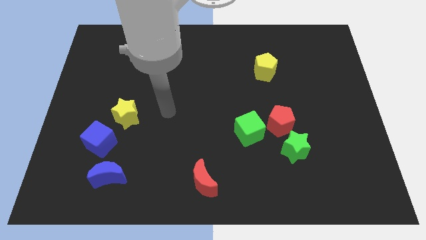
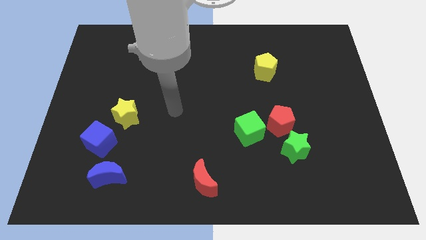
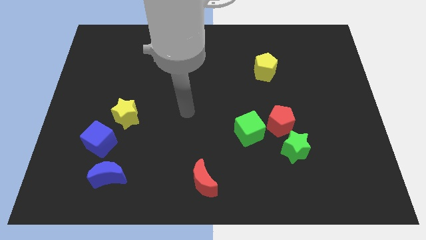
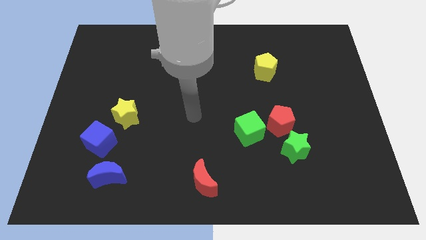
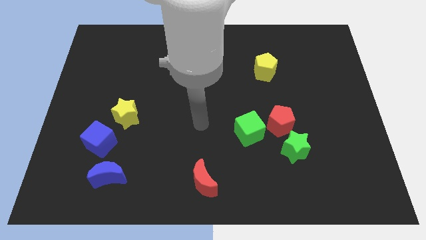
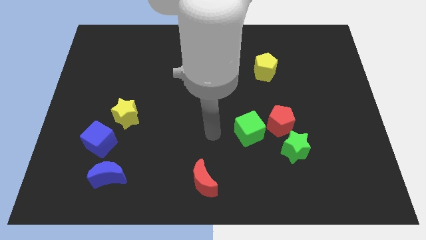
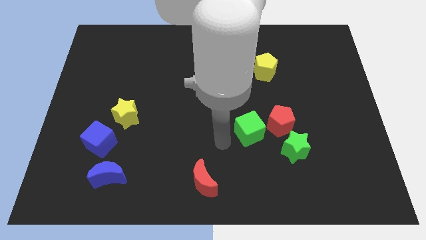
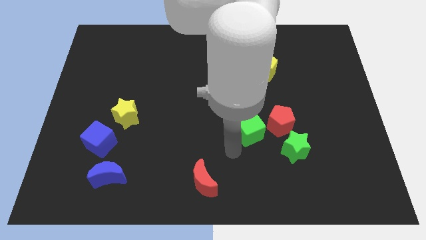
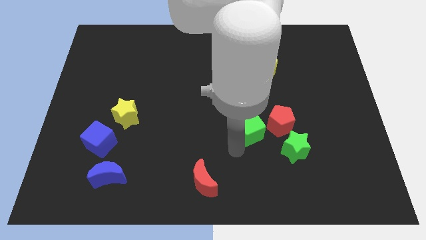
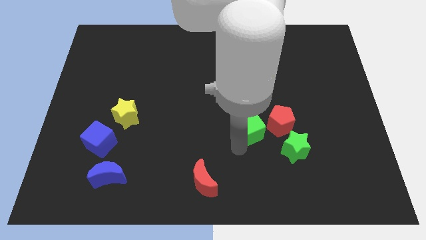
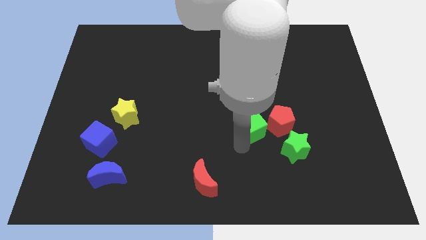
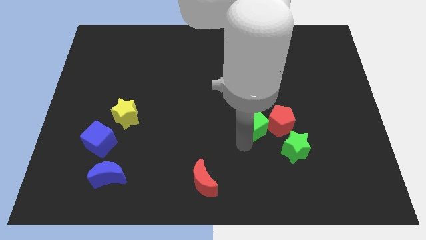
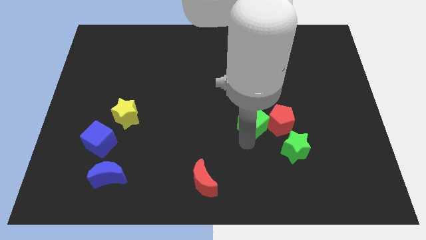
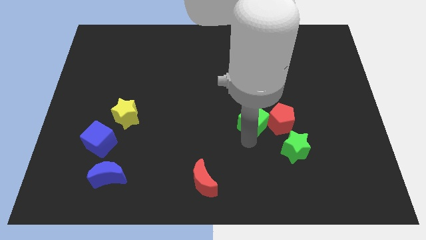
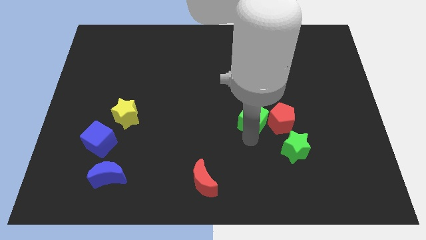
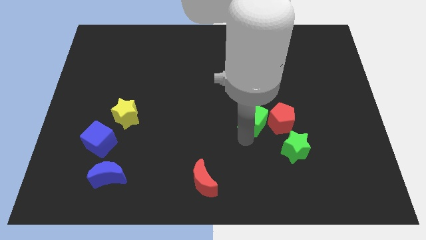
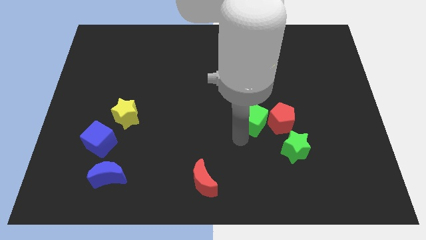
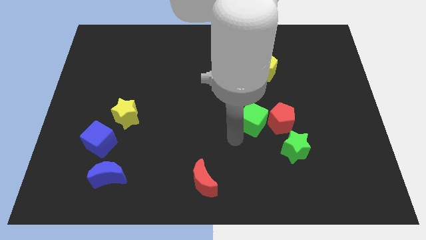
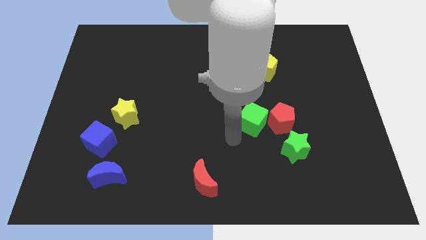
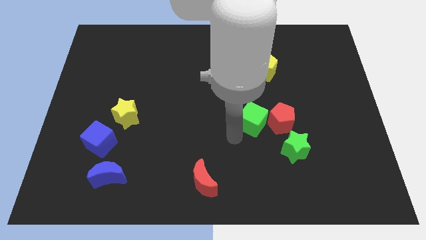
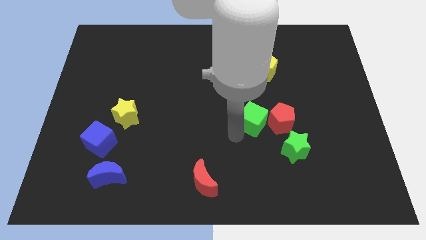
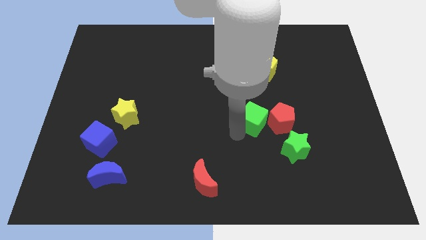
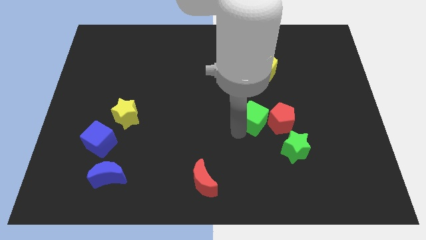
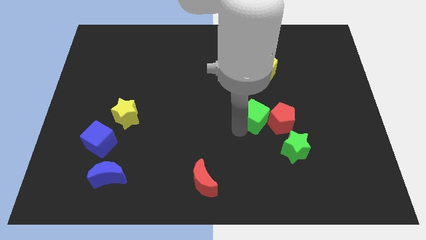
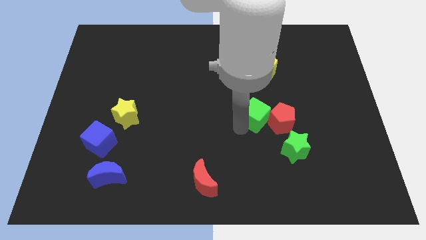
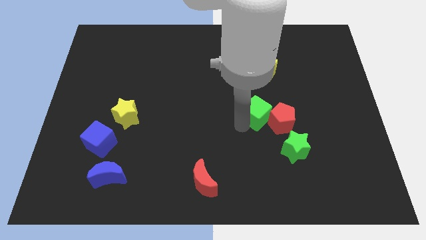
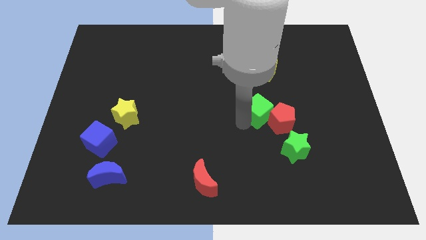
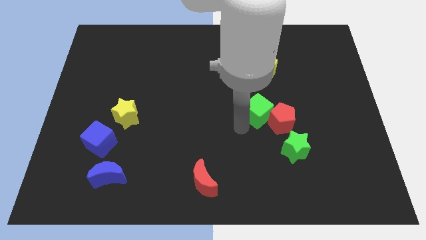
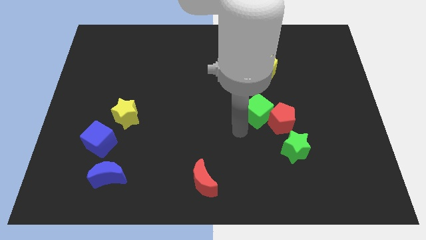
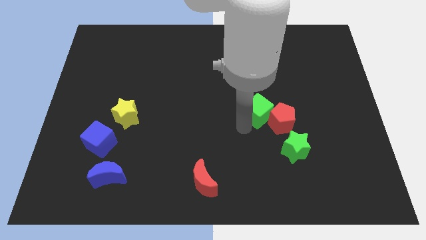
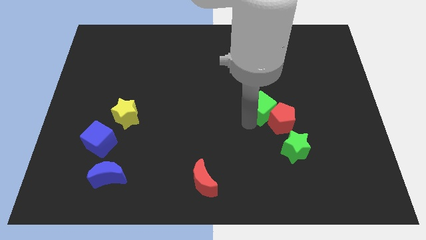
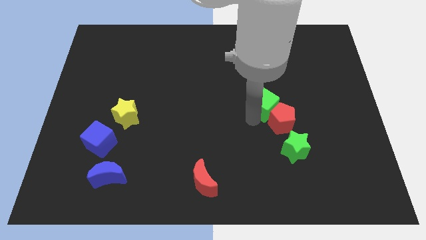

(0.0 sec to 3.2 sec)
move the green cube a little bit upwards and right diagonally

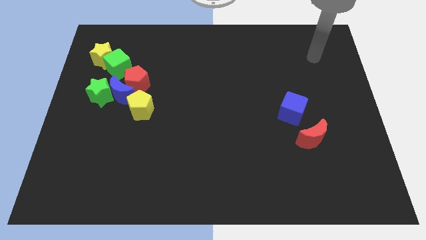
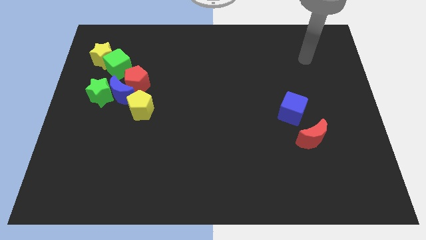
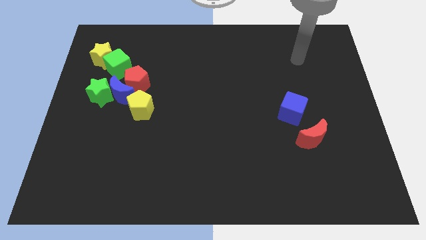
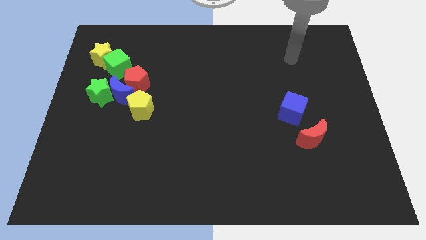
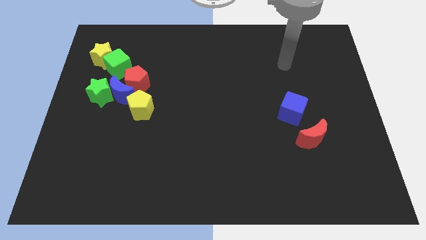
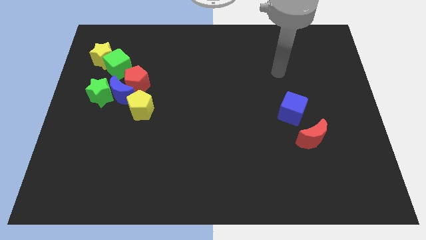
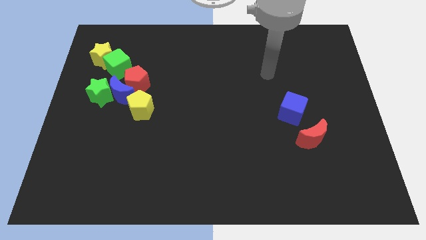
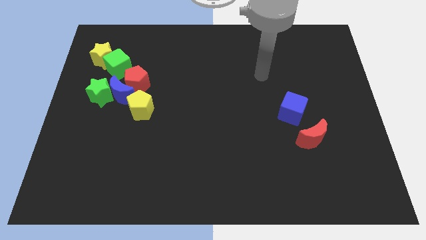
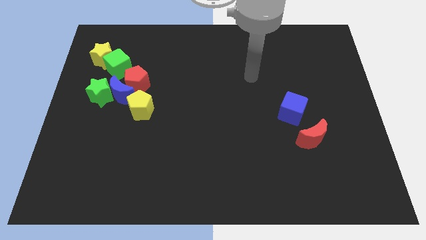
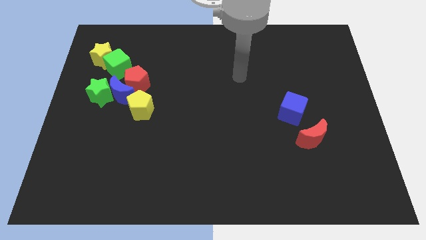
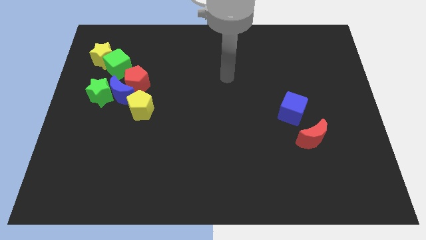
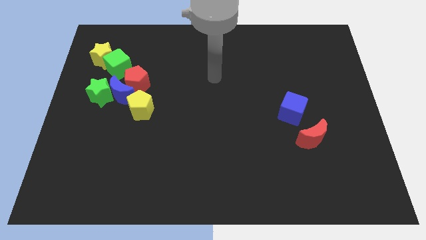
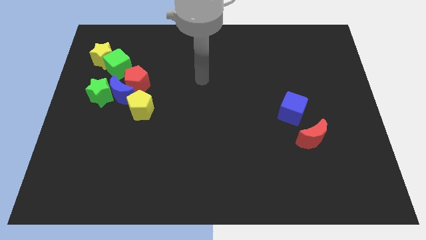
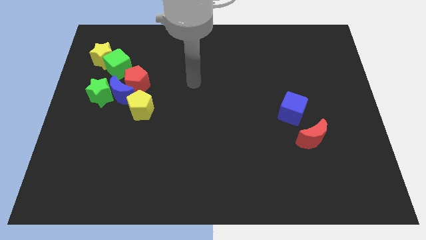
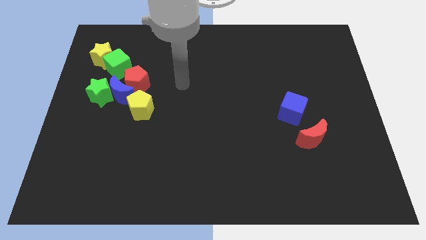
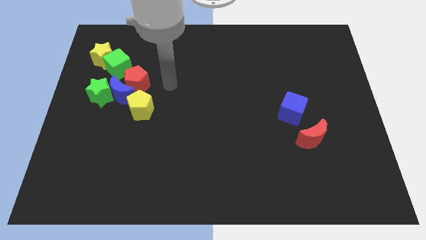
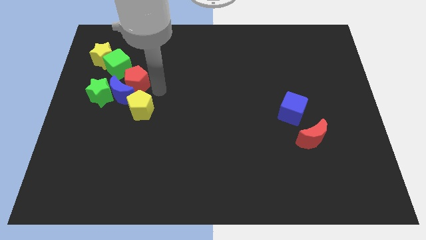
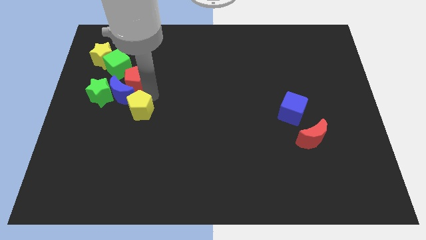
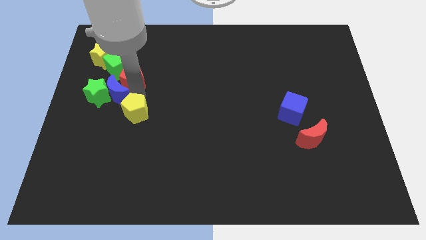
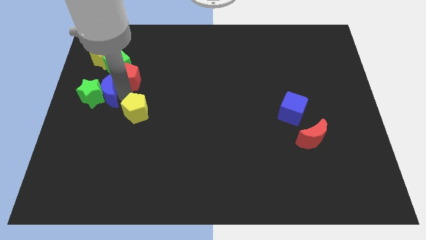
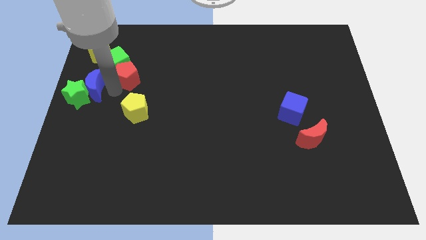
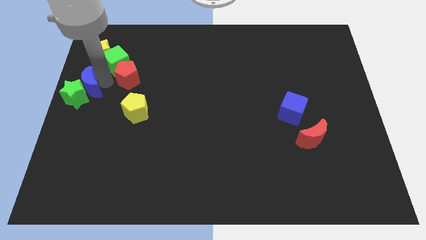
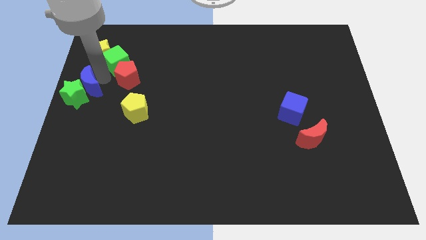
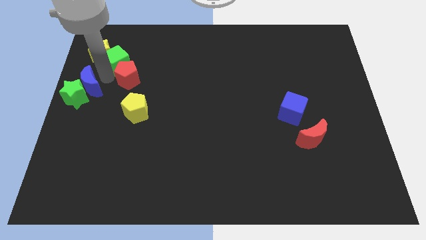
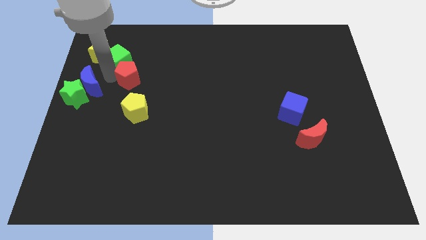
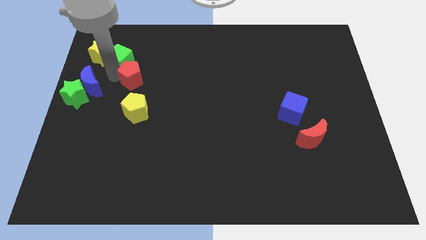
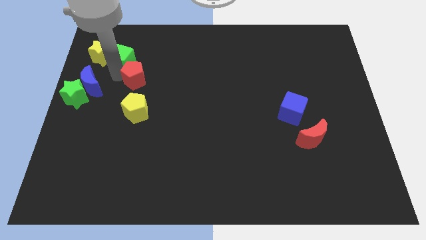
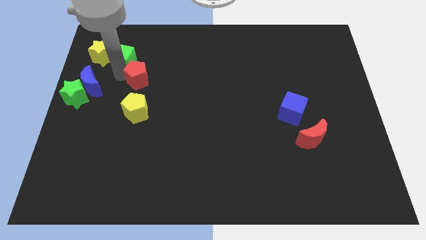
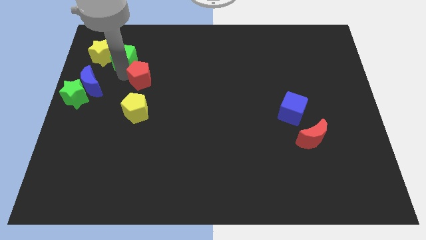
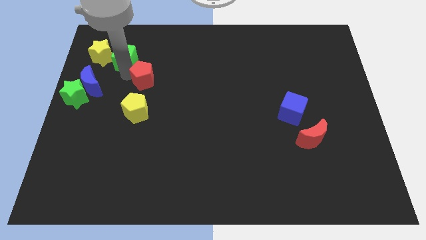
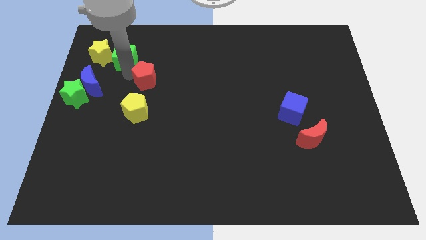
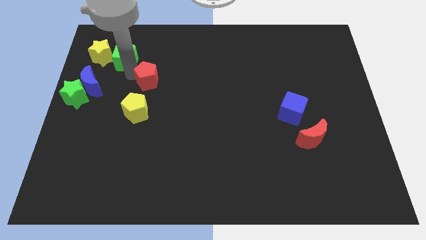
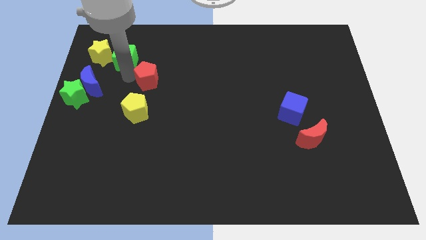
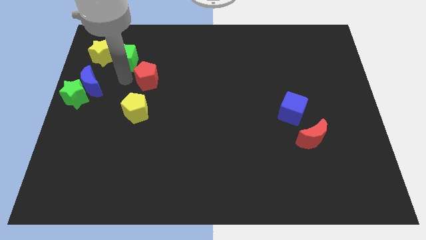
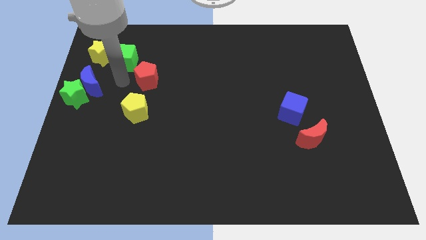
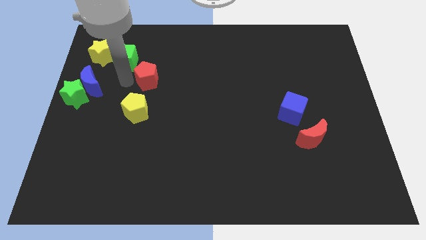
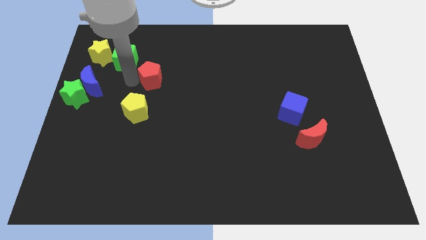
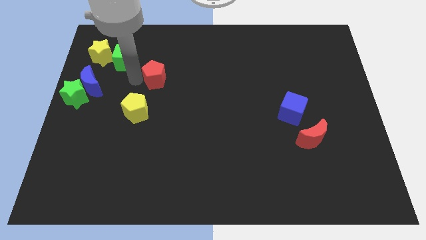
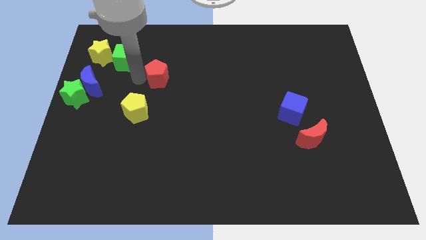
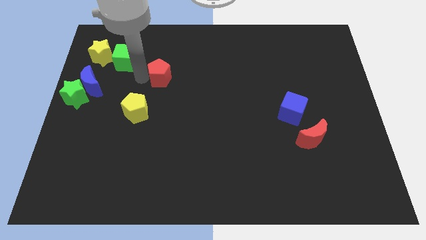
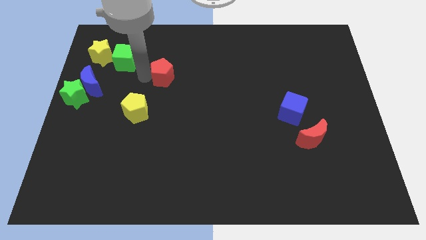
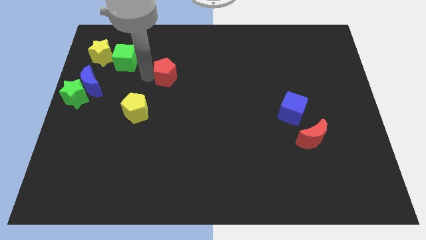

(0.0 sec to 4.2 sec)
push the red pentagon a little bit to the right

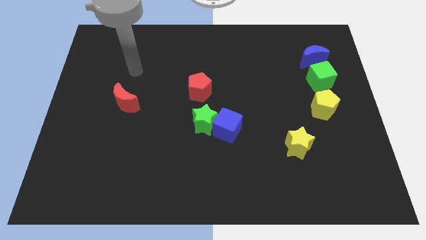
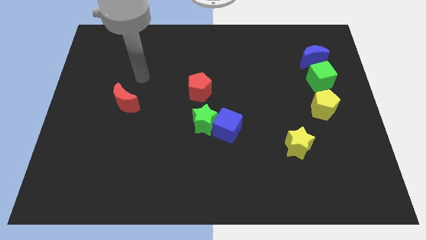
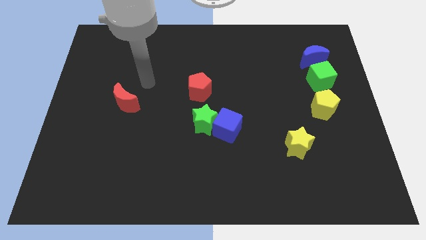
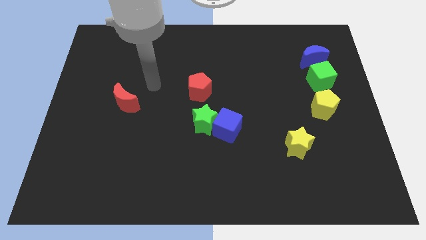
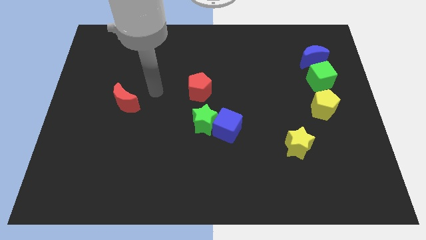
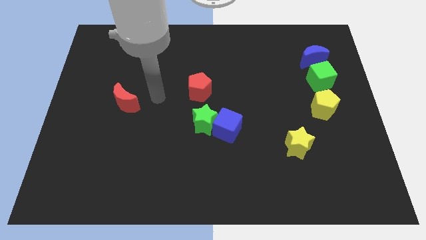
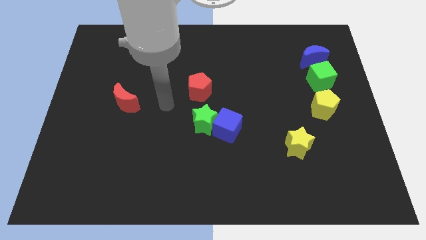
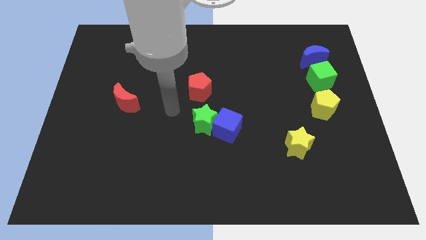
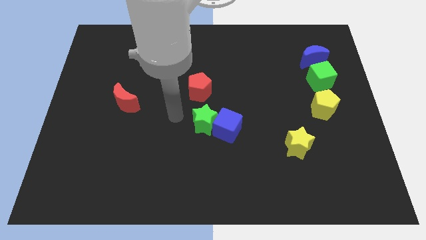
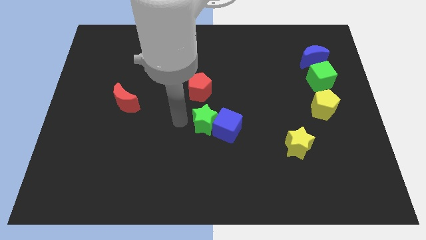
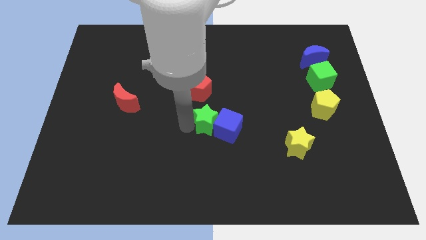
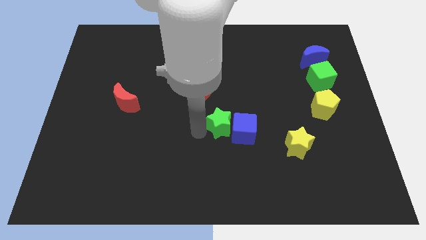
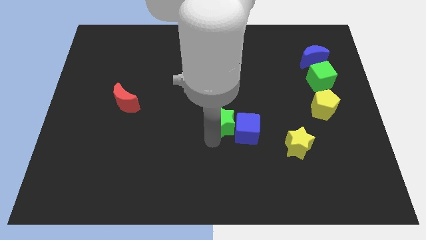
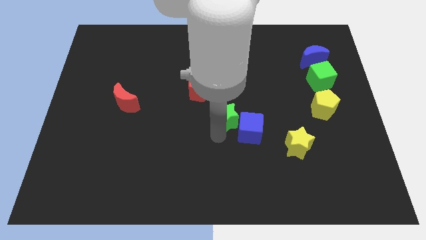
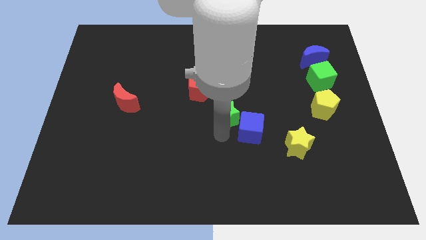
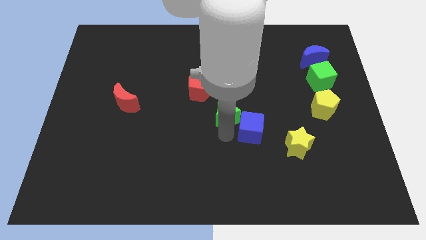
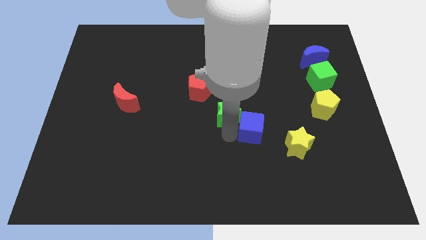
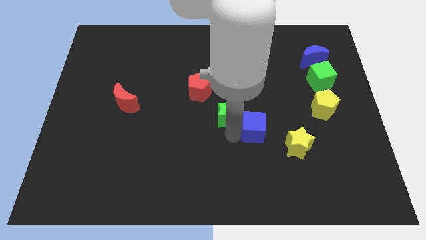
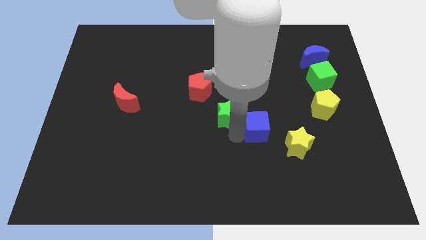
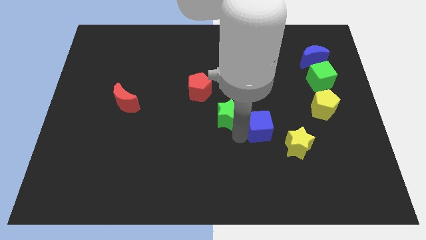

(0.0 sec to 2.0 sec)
push the blue cube somewhat right
